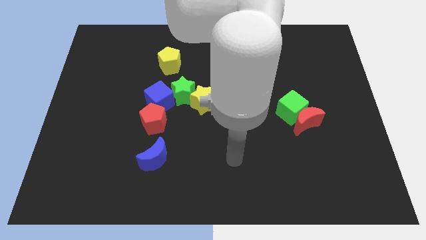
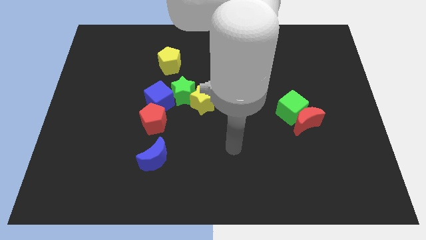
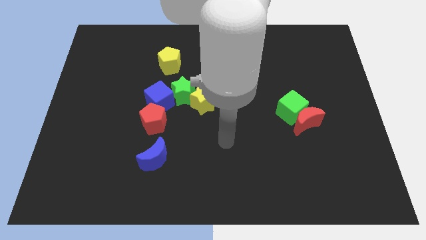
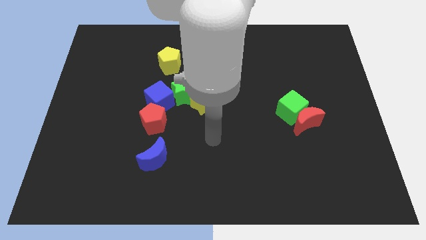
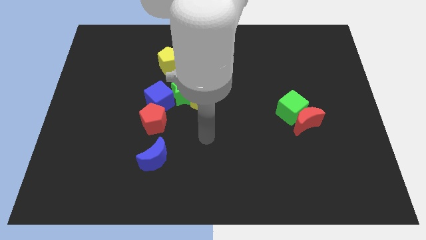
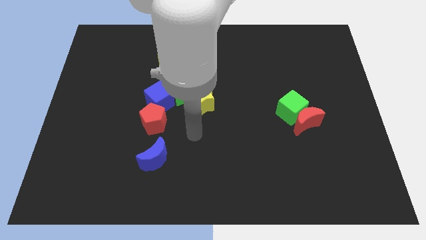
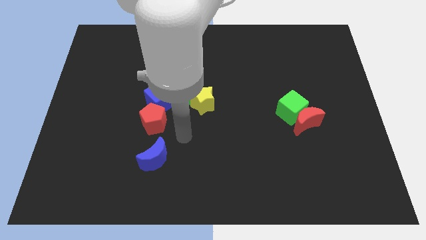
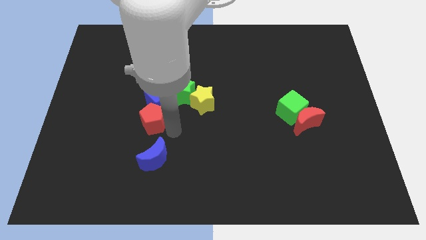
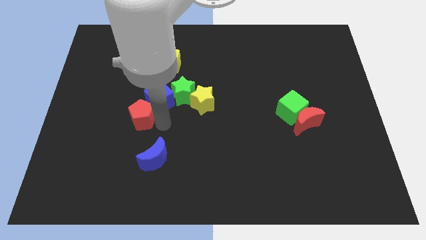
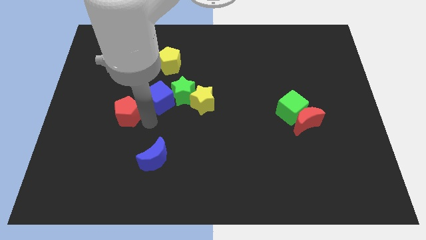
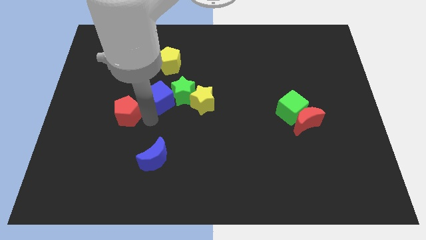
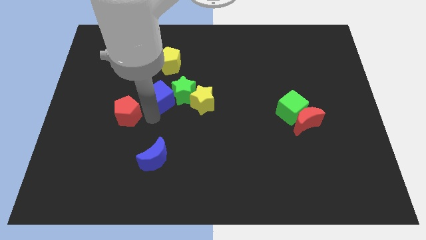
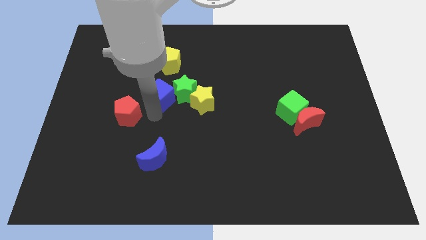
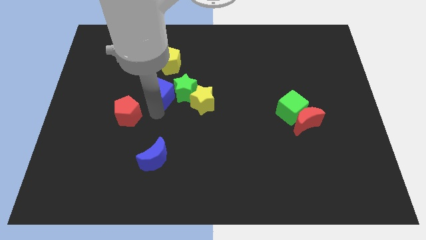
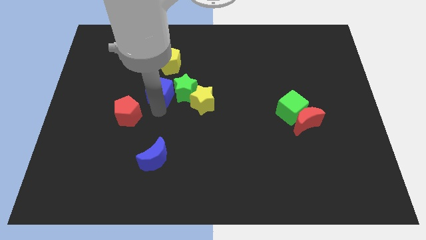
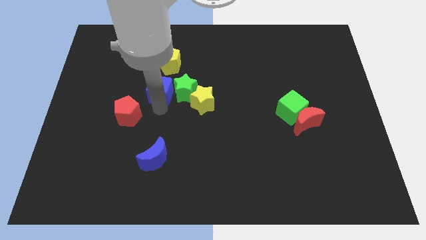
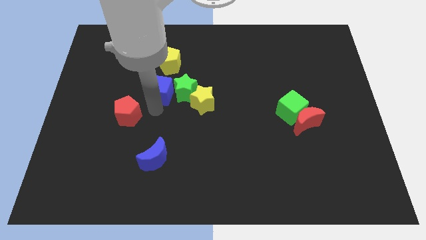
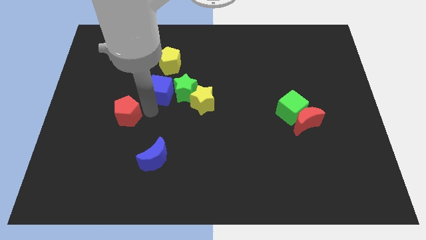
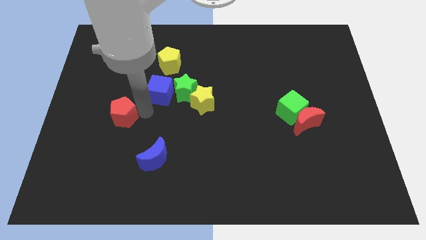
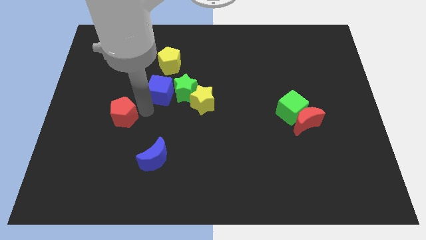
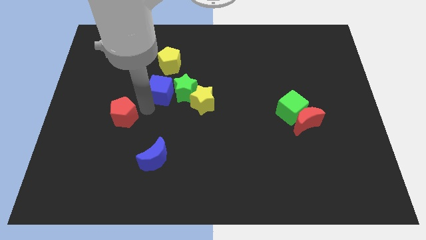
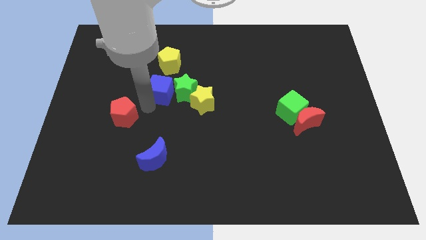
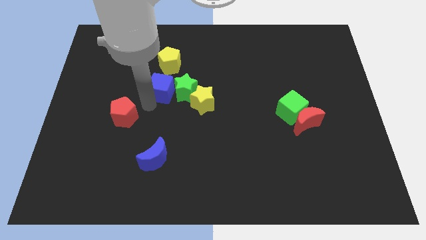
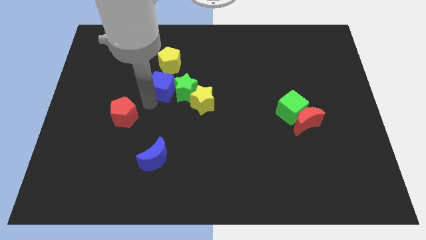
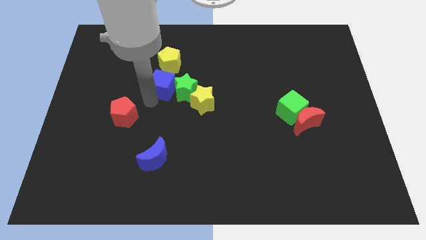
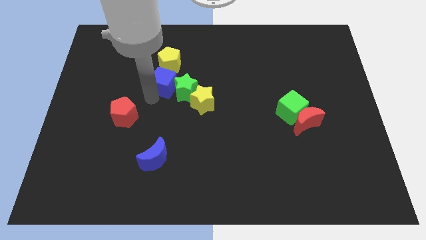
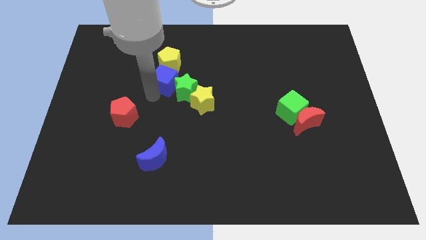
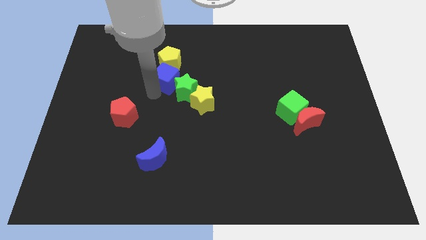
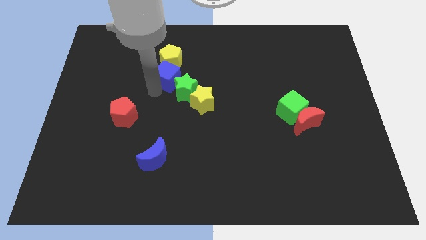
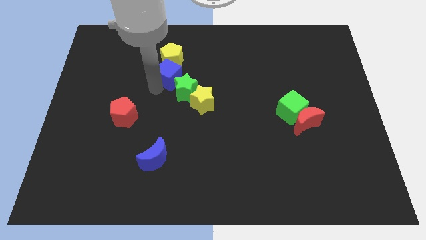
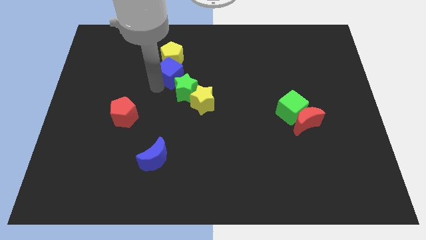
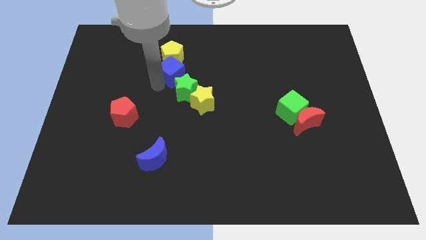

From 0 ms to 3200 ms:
slightly move the blue cube up and then to the right

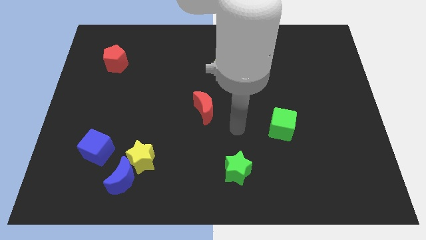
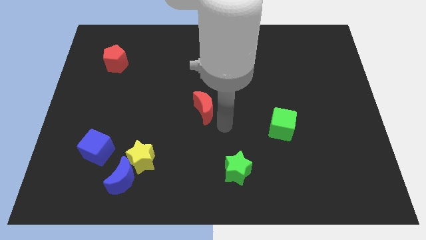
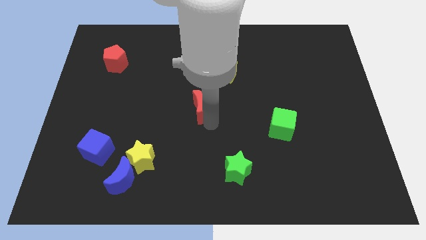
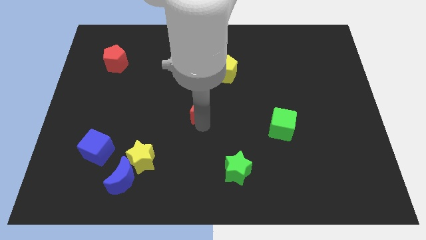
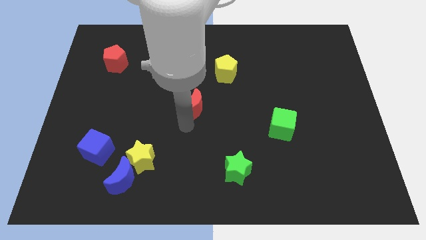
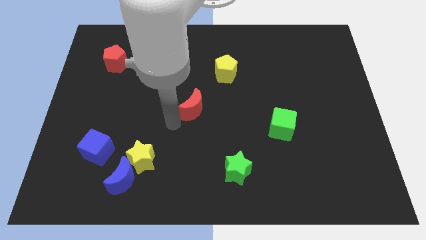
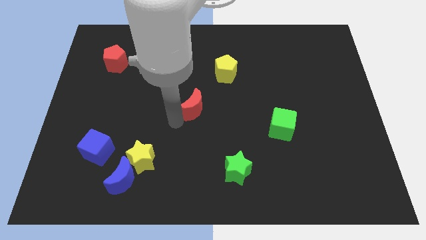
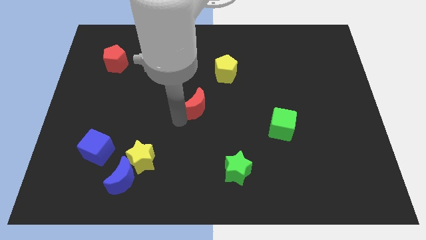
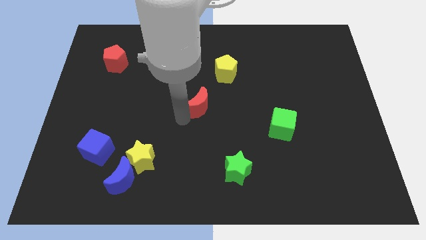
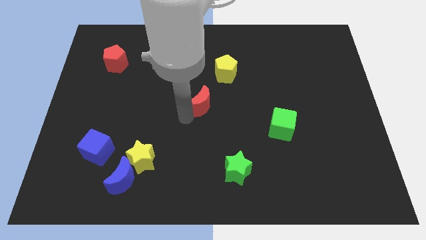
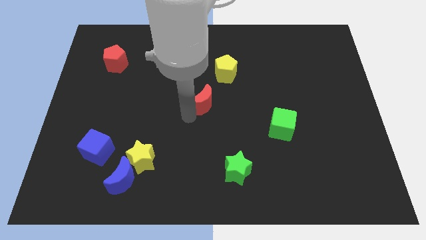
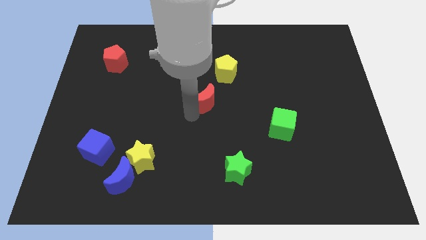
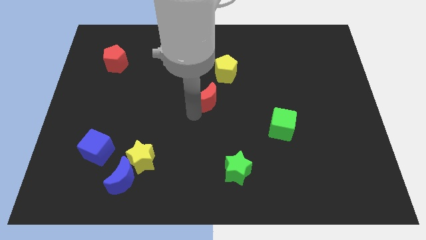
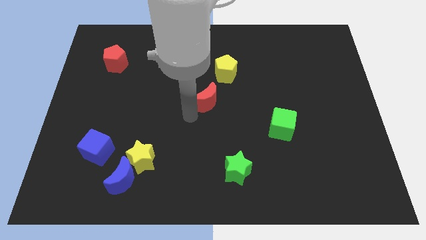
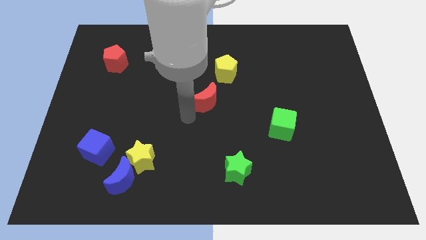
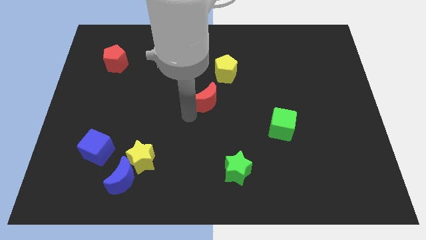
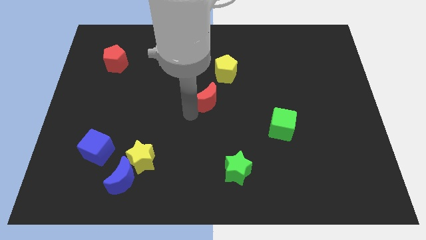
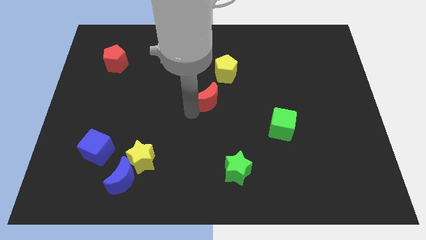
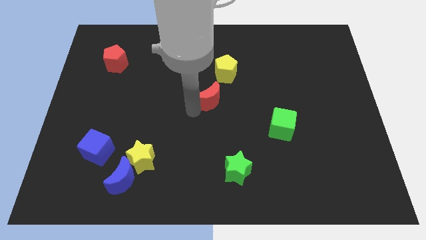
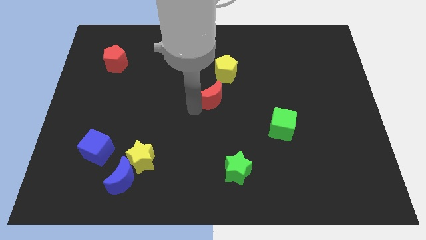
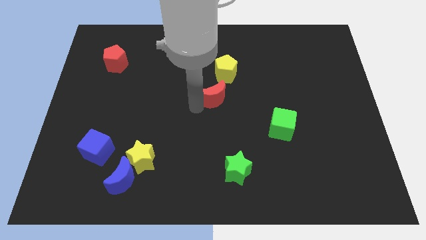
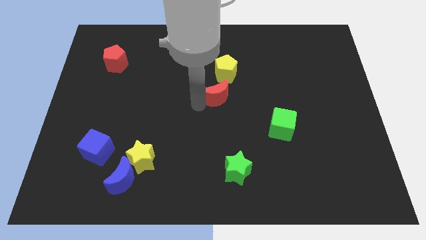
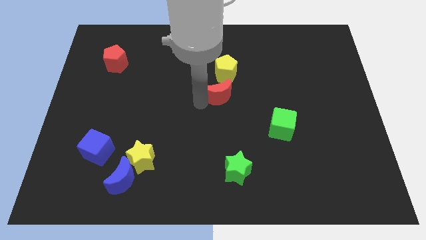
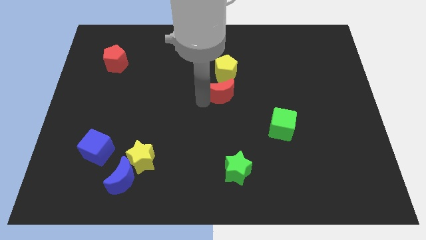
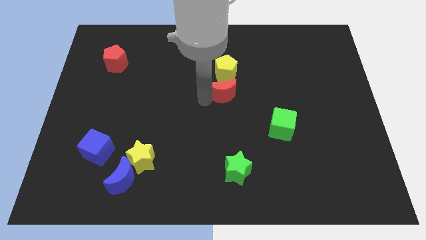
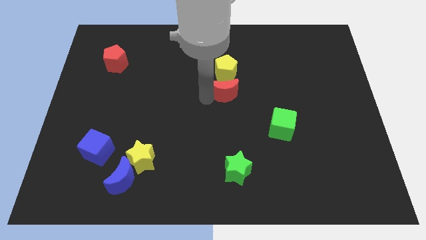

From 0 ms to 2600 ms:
slide the red moon upwards and then right somewhat

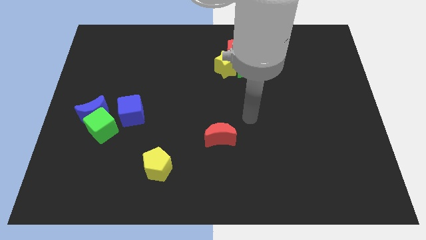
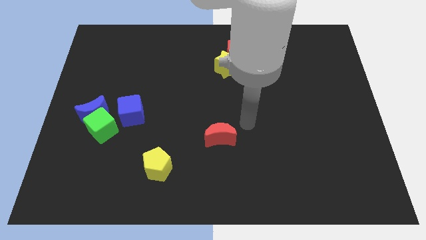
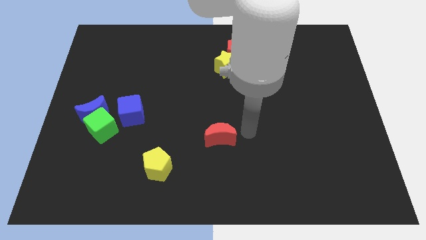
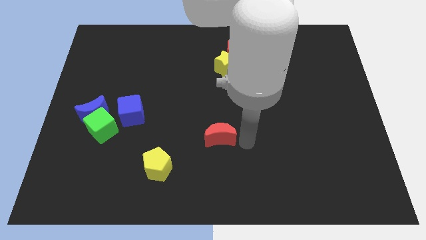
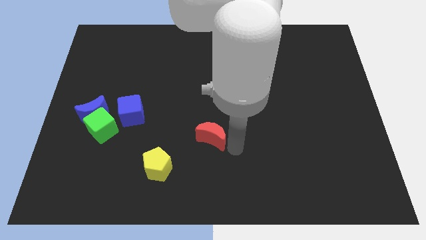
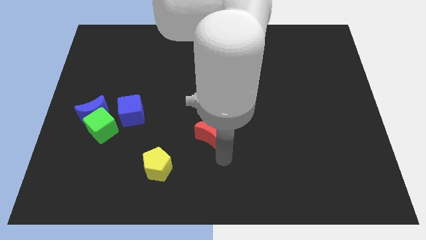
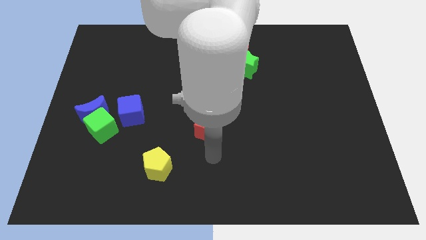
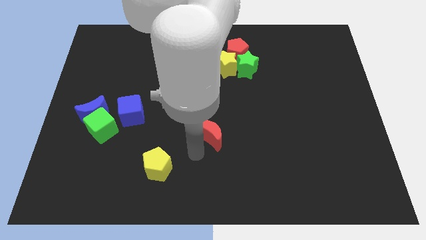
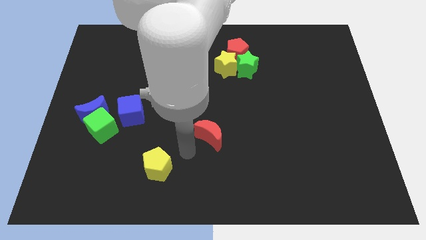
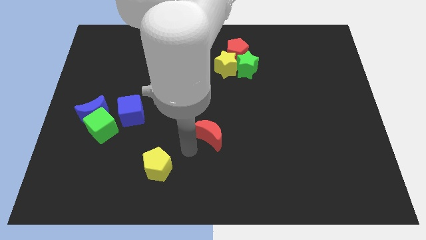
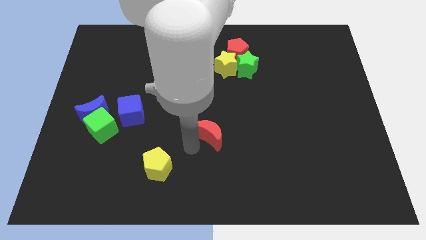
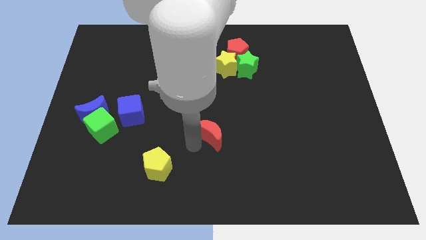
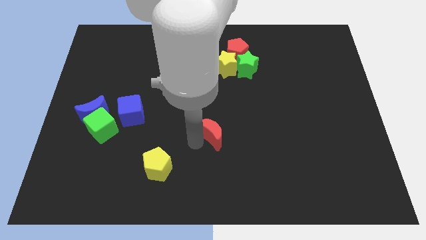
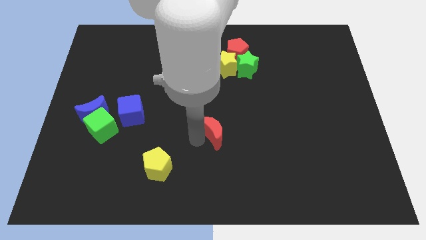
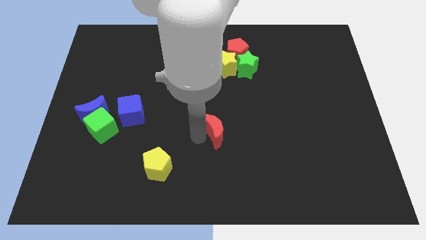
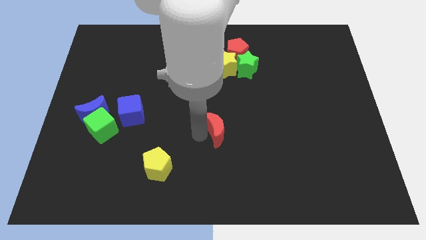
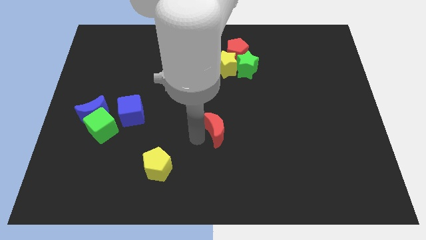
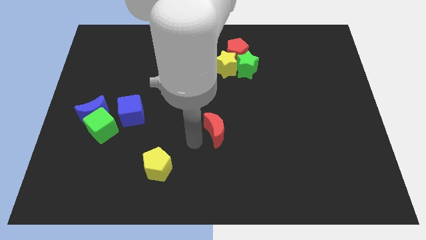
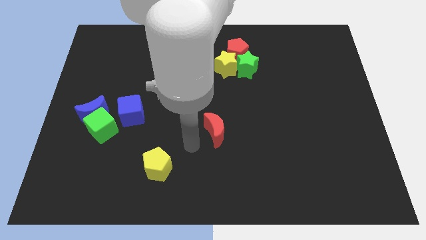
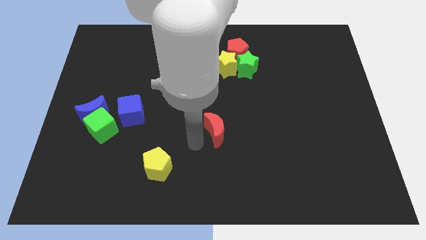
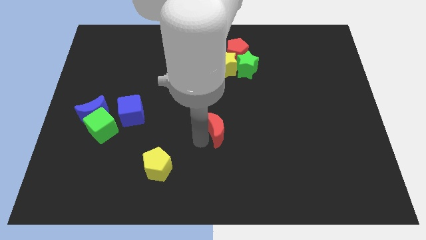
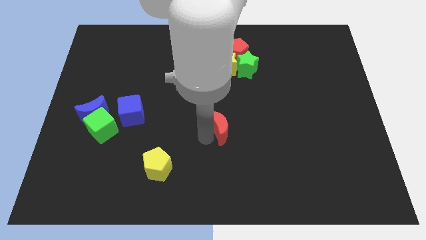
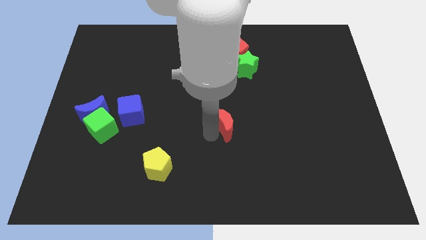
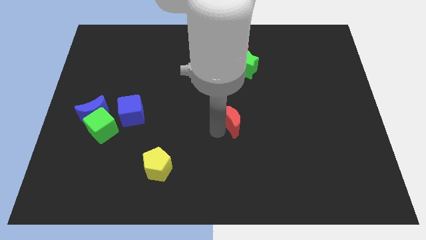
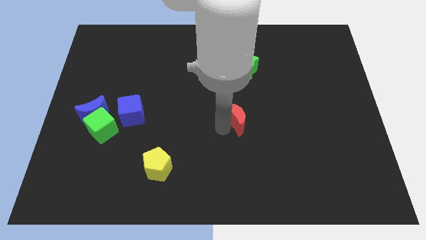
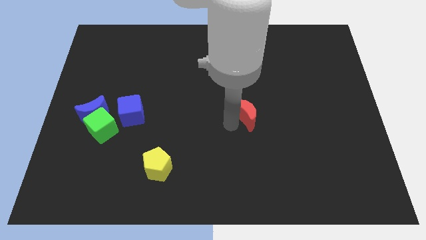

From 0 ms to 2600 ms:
slide the red moon a bit upwards and right
